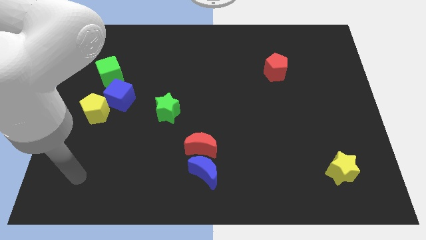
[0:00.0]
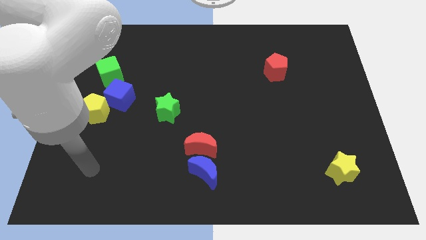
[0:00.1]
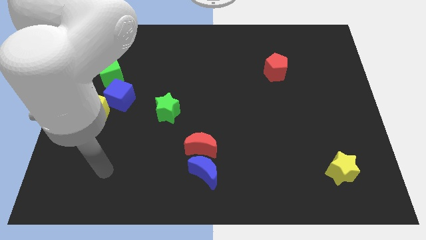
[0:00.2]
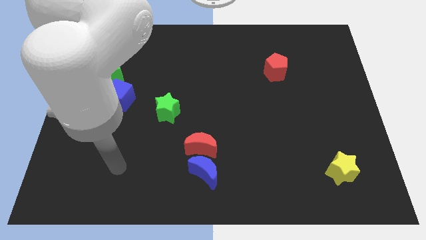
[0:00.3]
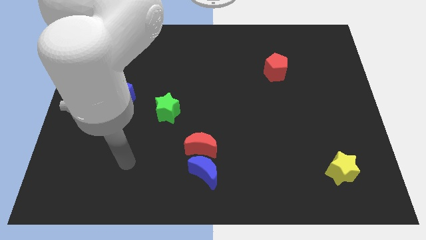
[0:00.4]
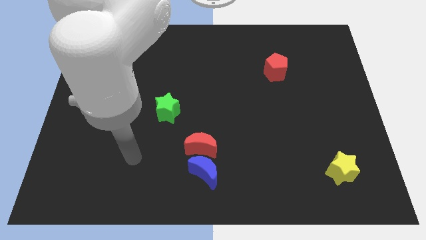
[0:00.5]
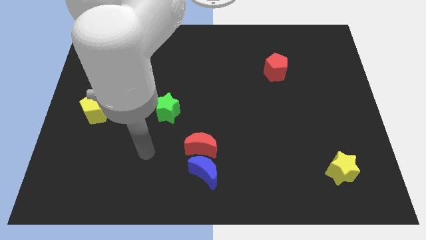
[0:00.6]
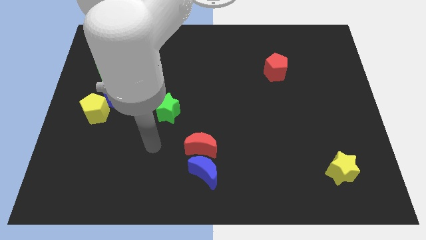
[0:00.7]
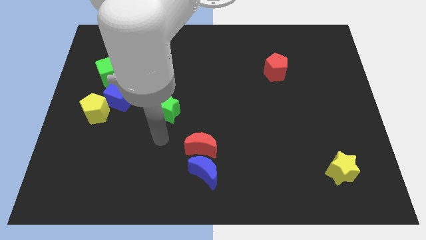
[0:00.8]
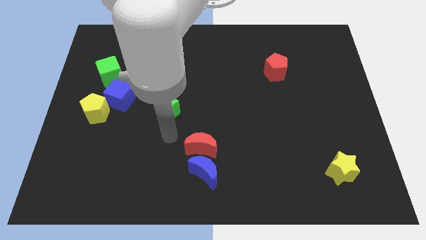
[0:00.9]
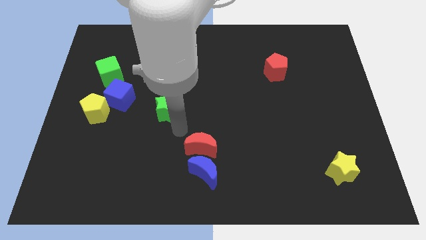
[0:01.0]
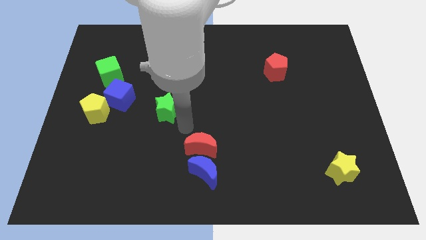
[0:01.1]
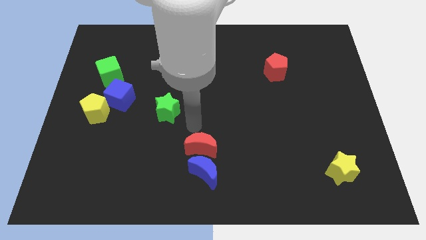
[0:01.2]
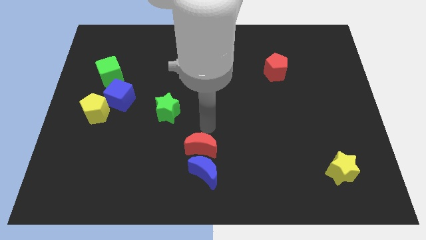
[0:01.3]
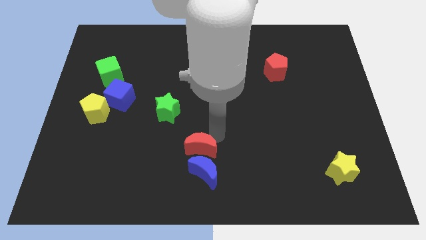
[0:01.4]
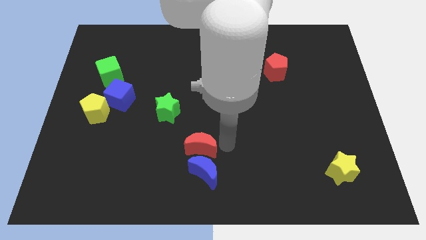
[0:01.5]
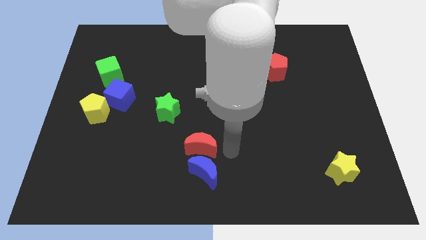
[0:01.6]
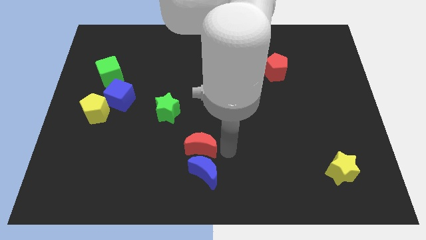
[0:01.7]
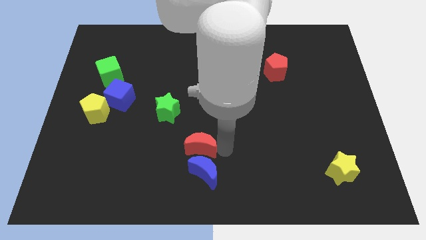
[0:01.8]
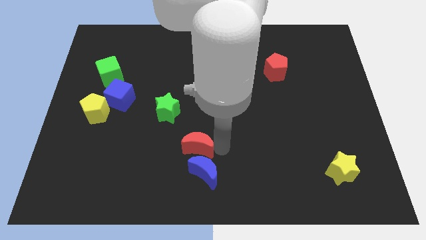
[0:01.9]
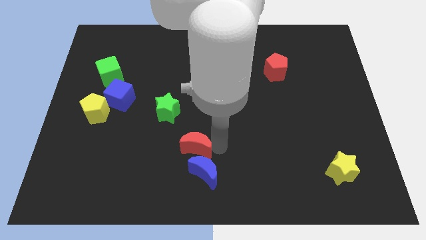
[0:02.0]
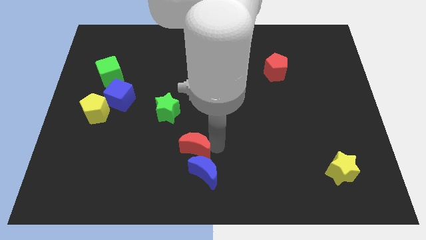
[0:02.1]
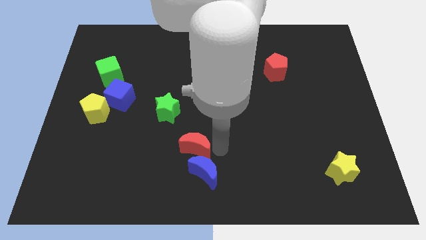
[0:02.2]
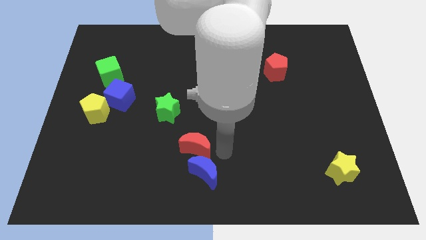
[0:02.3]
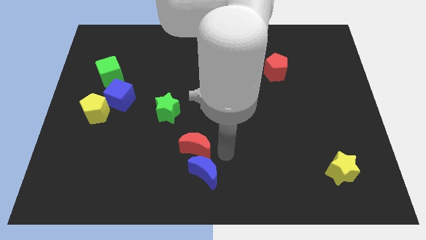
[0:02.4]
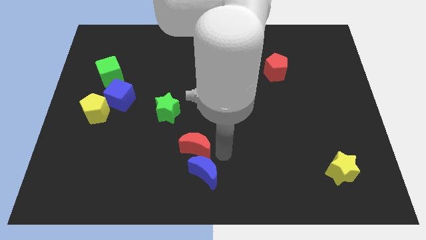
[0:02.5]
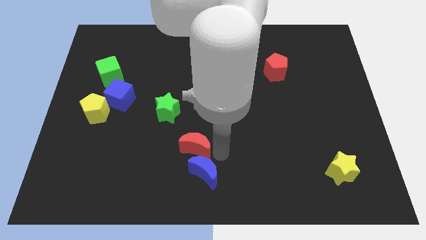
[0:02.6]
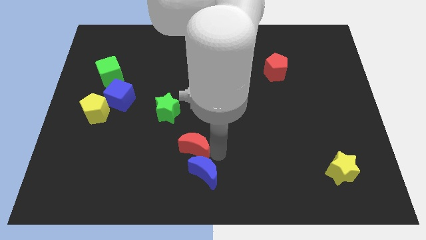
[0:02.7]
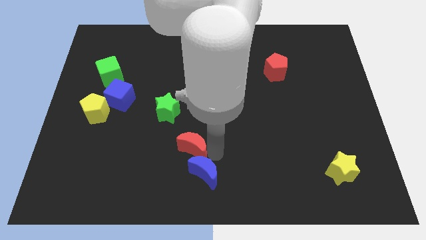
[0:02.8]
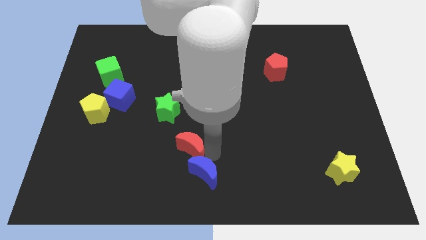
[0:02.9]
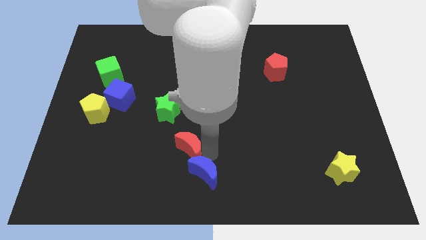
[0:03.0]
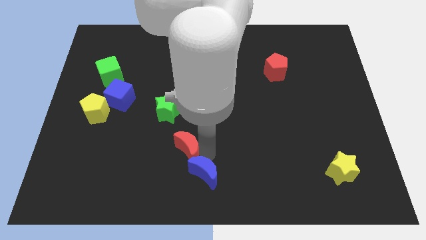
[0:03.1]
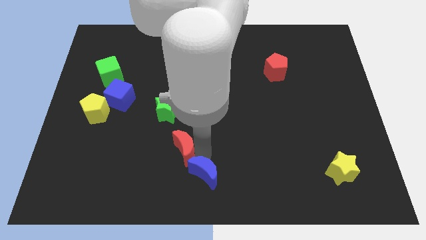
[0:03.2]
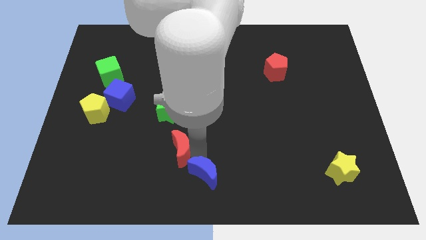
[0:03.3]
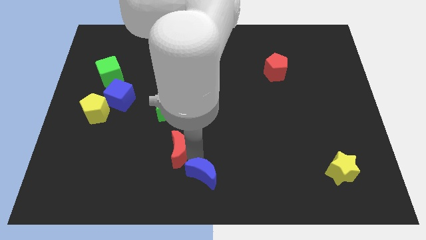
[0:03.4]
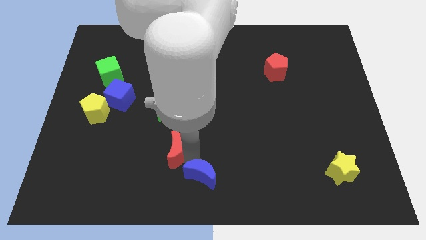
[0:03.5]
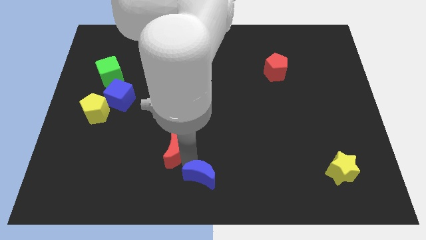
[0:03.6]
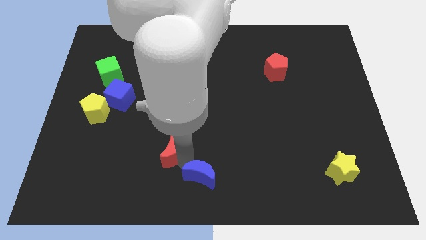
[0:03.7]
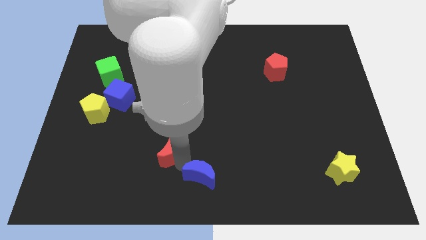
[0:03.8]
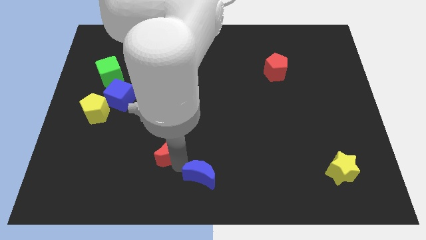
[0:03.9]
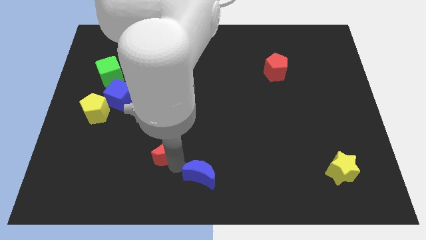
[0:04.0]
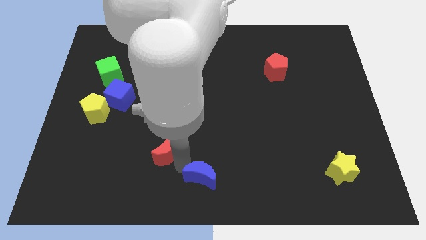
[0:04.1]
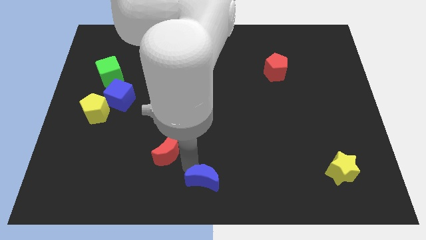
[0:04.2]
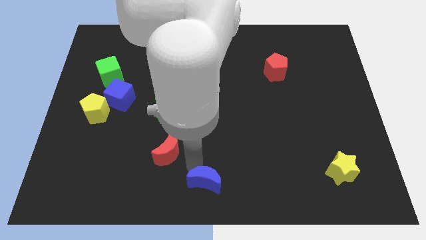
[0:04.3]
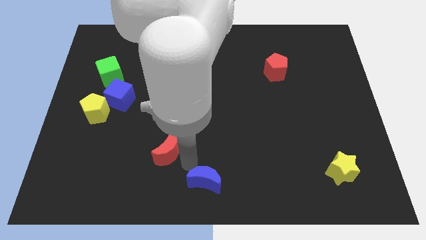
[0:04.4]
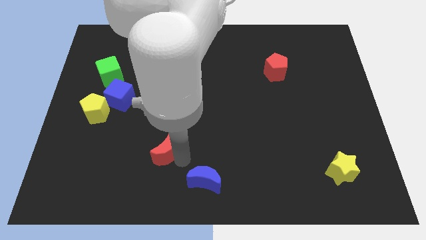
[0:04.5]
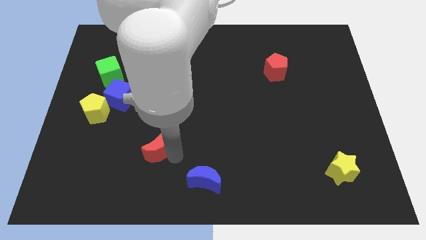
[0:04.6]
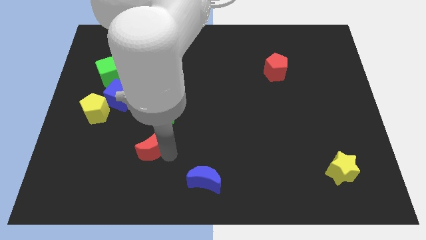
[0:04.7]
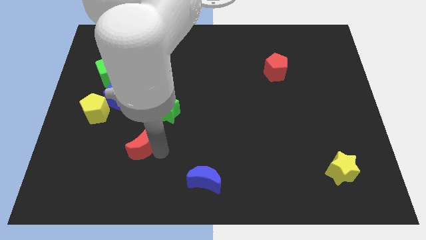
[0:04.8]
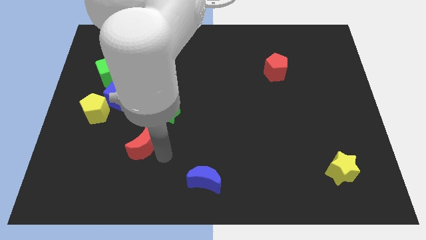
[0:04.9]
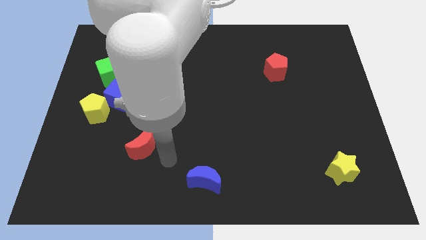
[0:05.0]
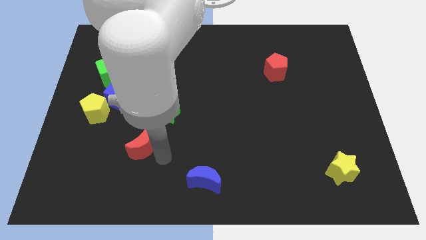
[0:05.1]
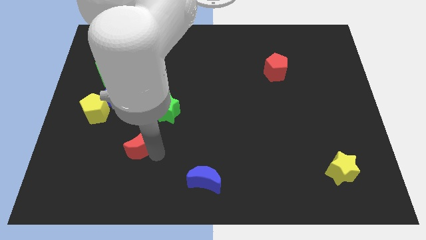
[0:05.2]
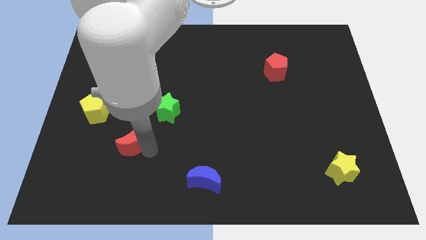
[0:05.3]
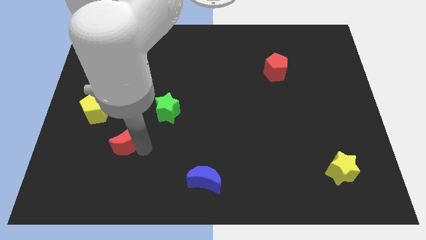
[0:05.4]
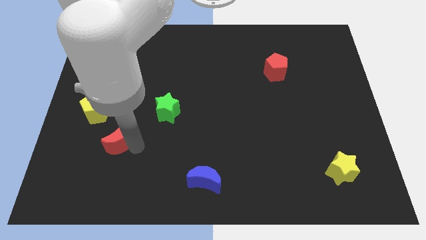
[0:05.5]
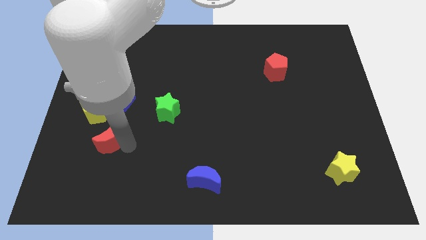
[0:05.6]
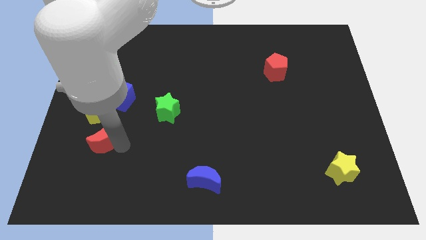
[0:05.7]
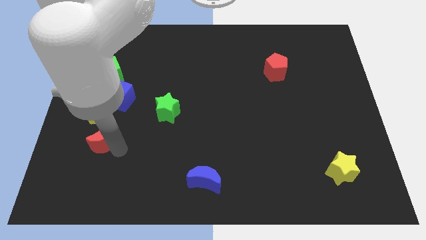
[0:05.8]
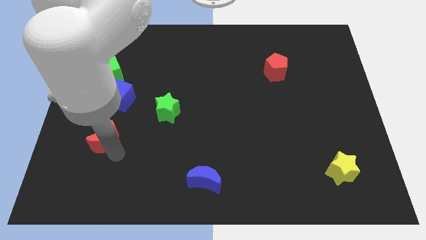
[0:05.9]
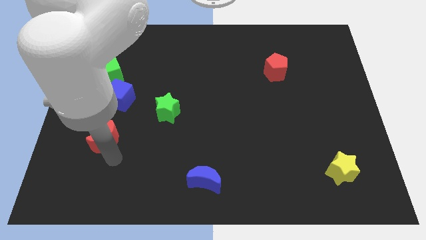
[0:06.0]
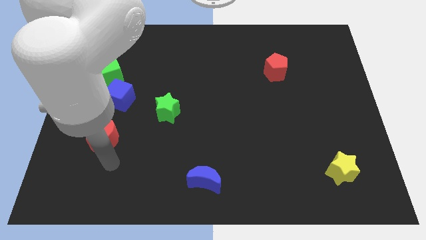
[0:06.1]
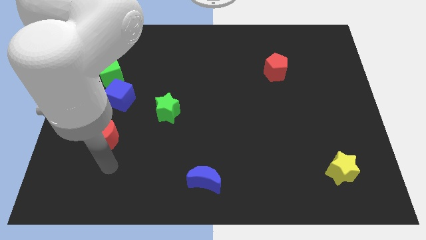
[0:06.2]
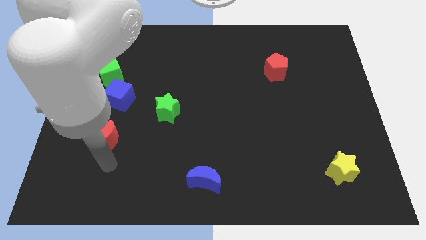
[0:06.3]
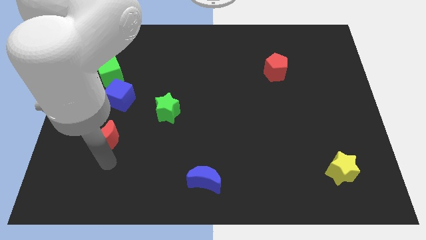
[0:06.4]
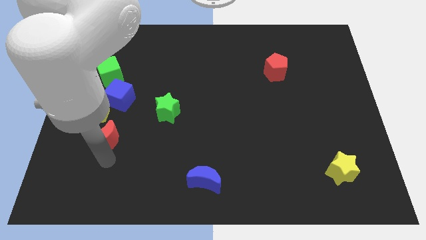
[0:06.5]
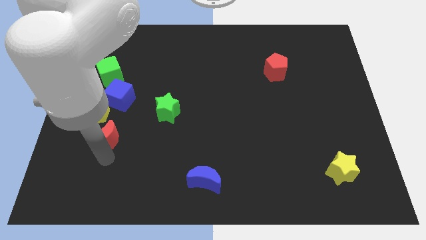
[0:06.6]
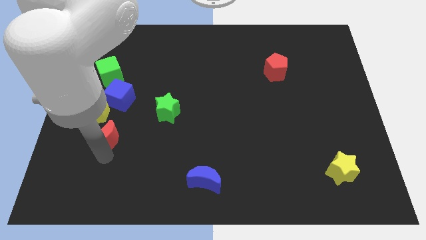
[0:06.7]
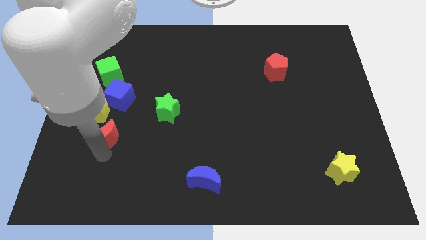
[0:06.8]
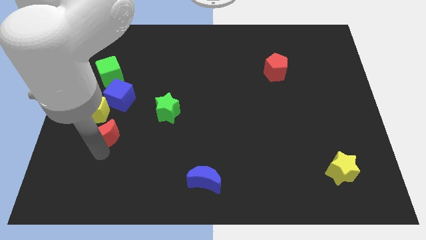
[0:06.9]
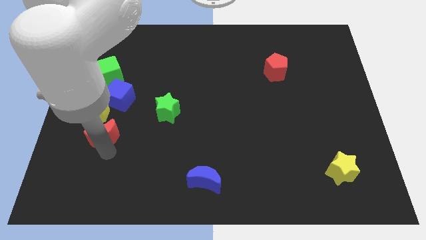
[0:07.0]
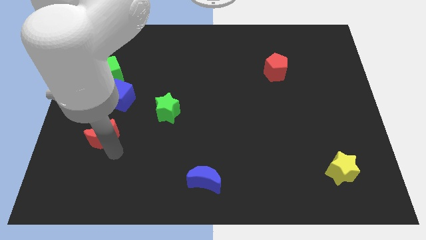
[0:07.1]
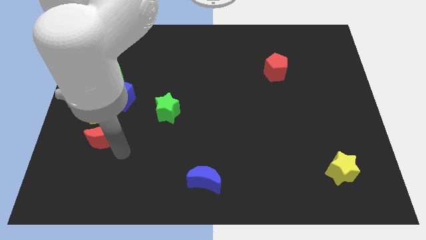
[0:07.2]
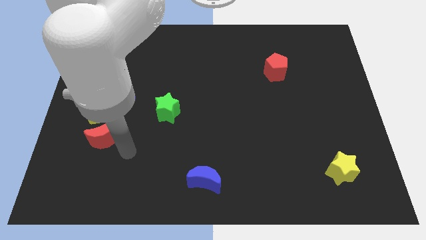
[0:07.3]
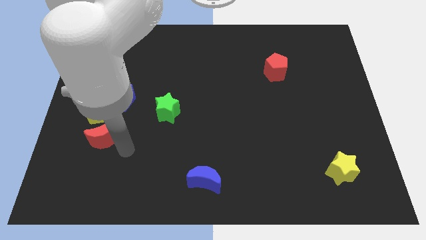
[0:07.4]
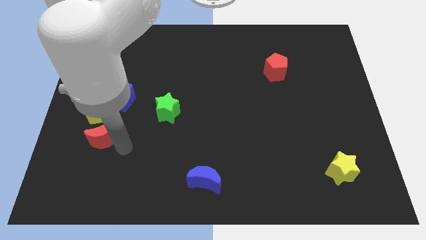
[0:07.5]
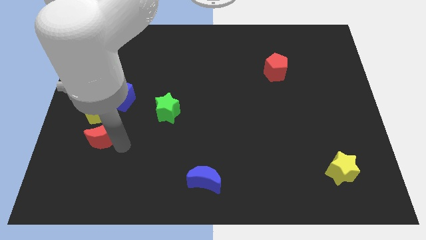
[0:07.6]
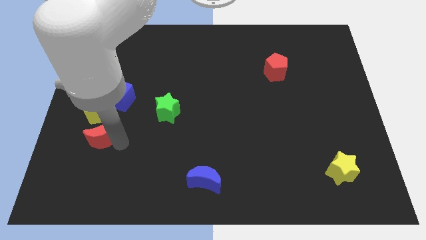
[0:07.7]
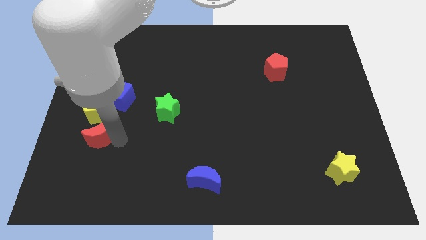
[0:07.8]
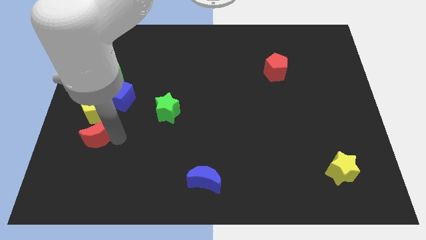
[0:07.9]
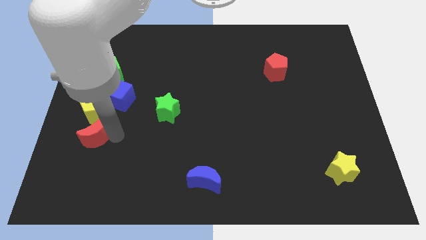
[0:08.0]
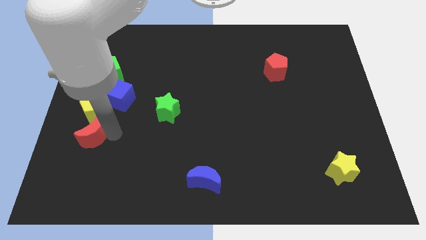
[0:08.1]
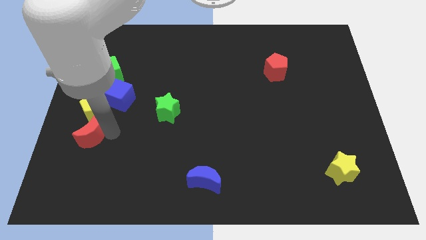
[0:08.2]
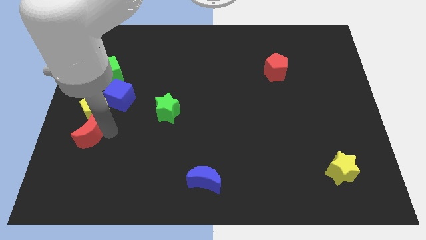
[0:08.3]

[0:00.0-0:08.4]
slide the red moon diagonally down and to the left of the blue cube
